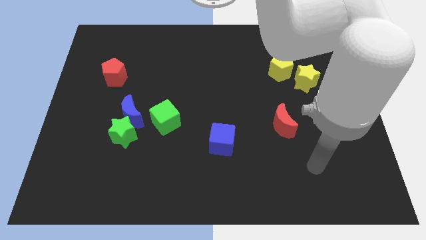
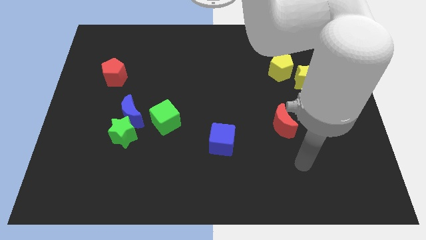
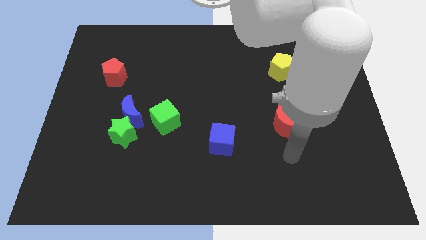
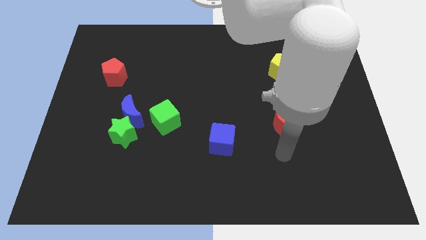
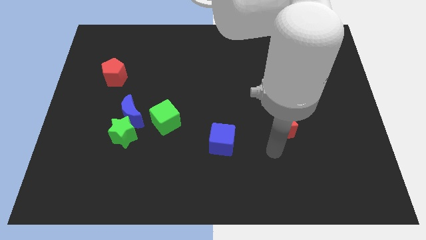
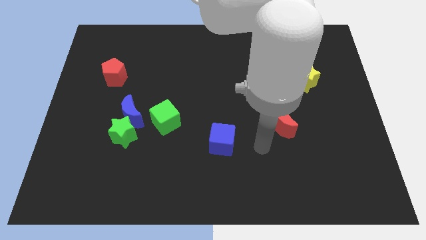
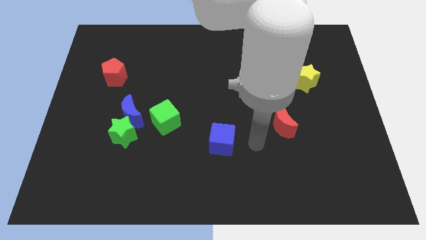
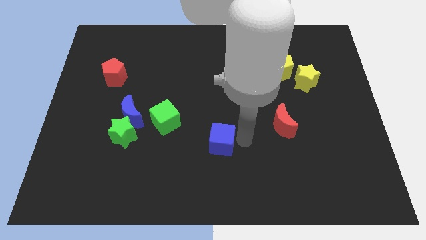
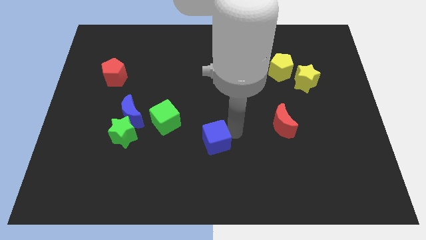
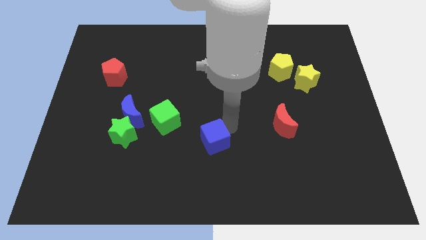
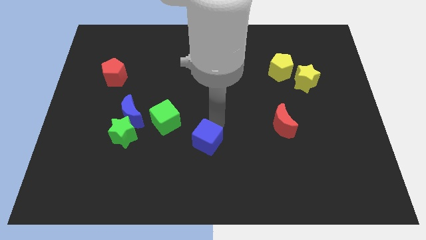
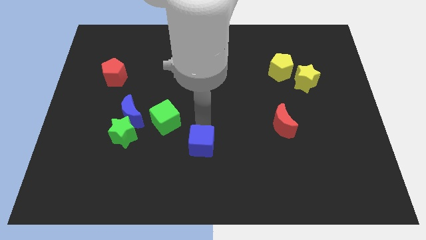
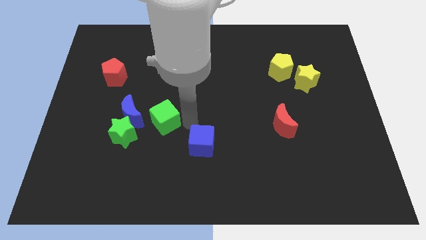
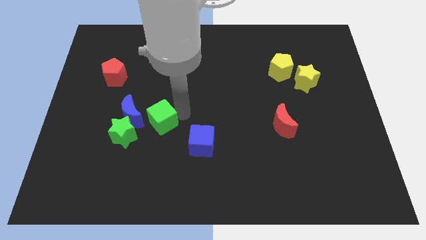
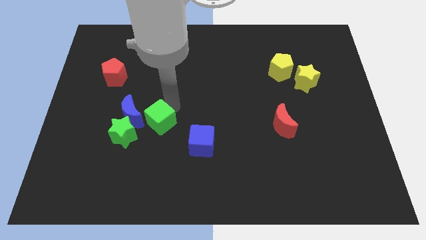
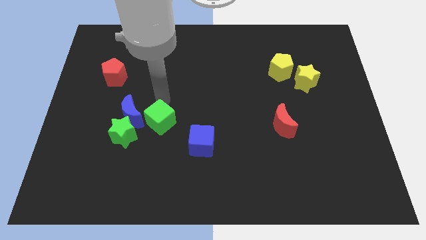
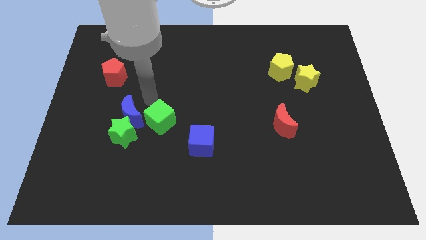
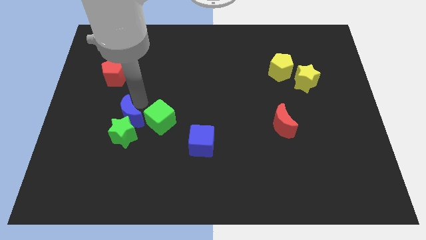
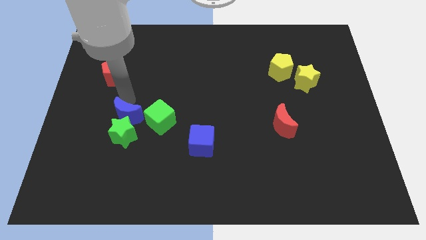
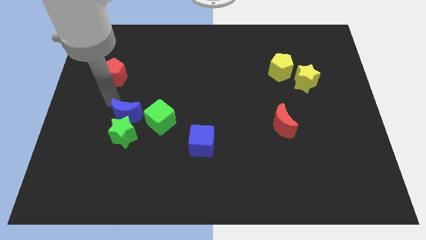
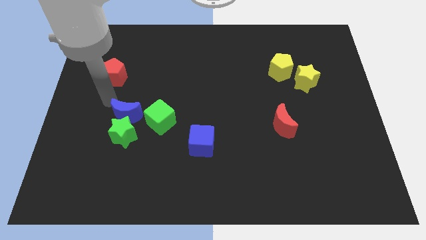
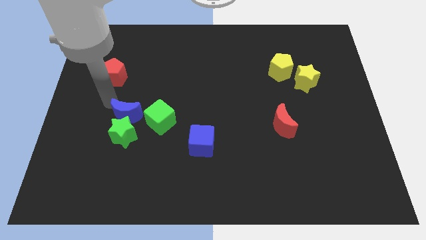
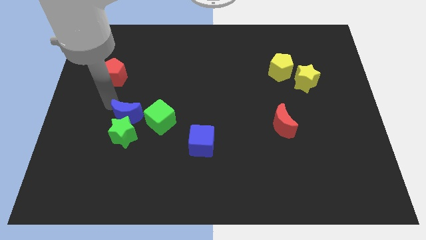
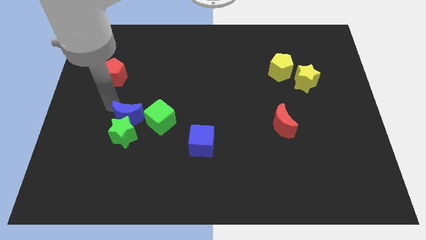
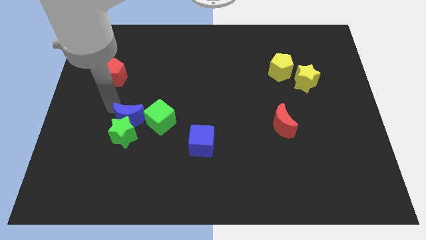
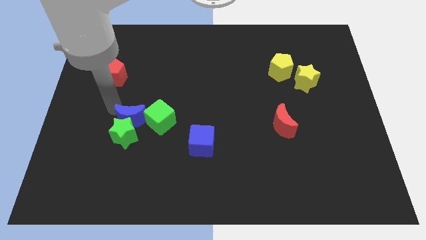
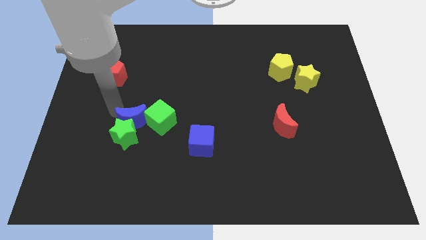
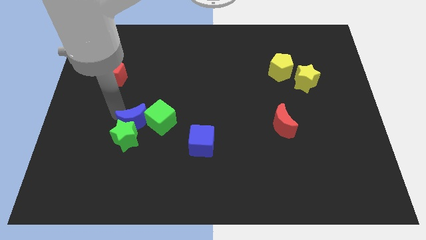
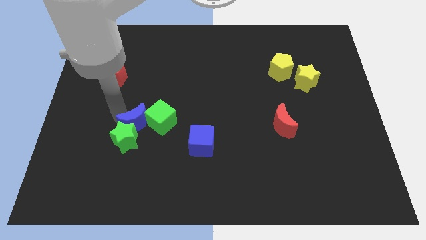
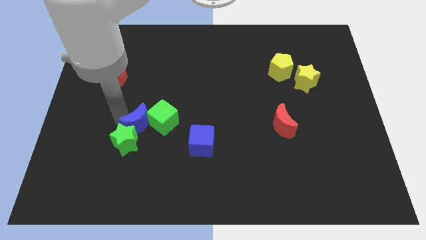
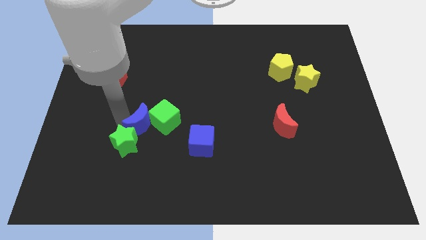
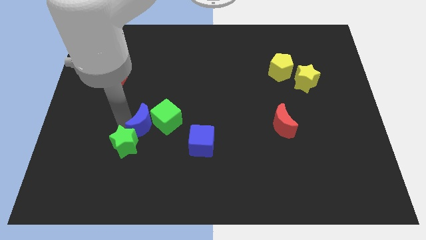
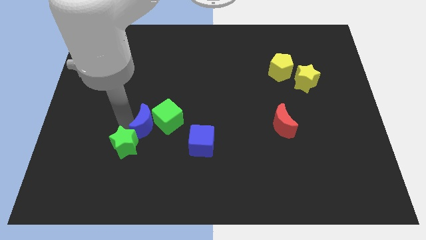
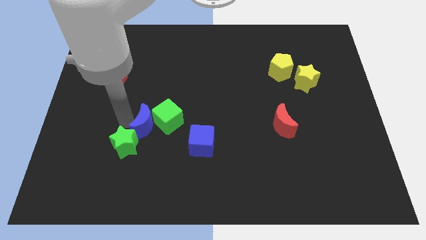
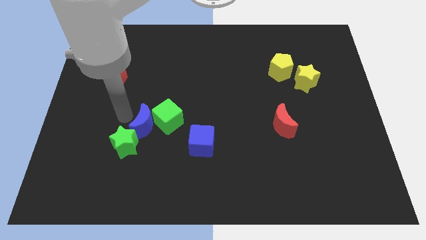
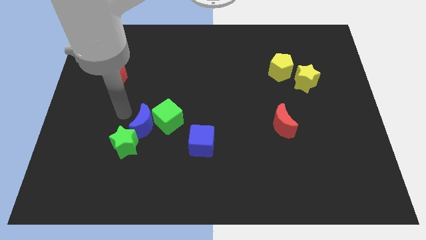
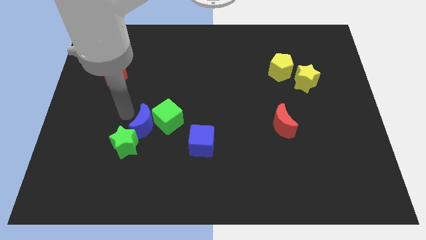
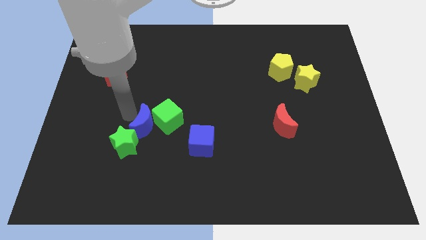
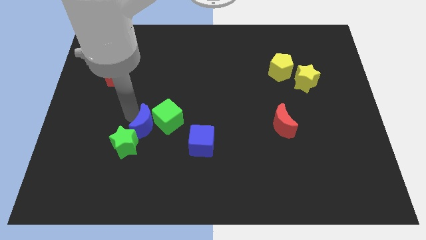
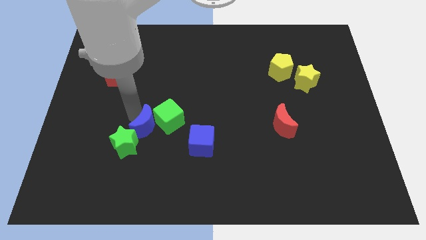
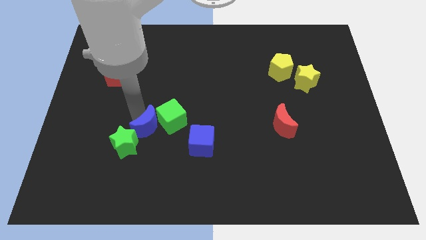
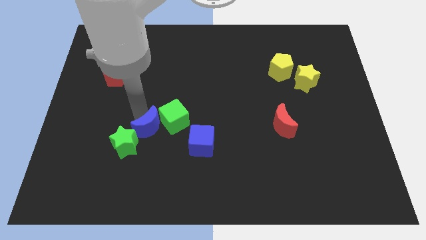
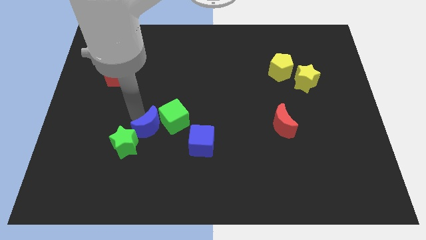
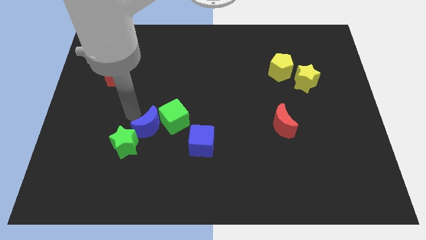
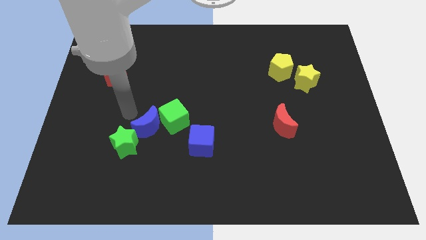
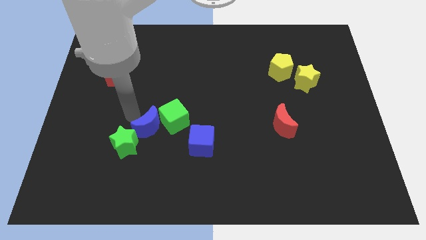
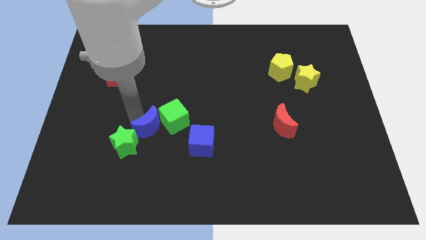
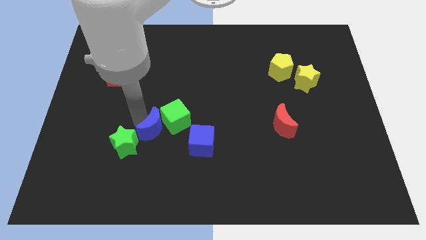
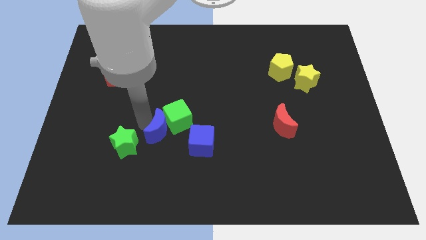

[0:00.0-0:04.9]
slide the blue moon below the green cube

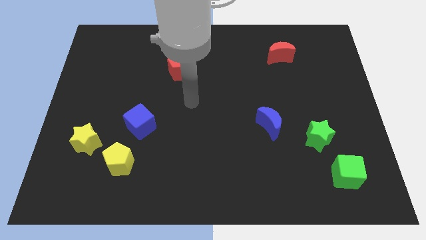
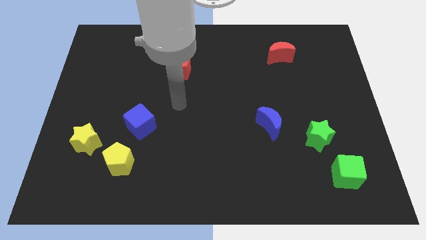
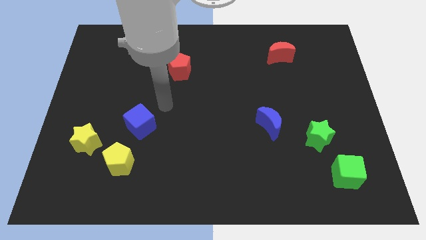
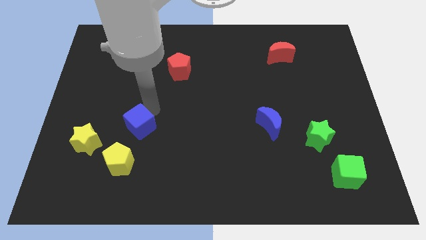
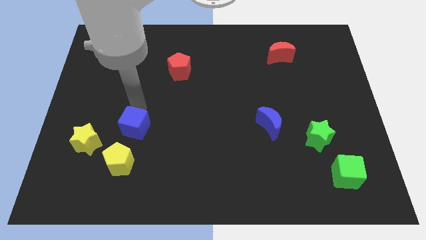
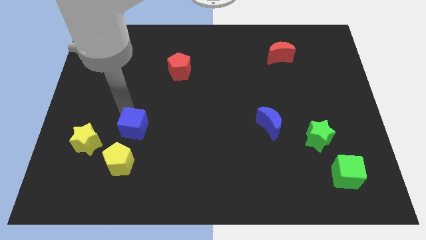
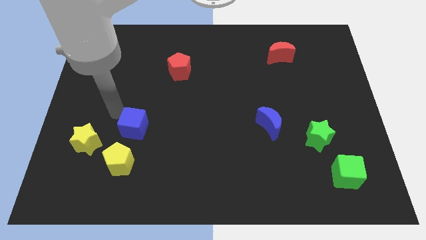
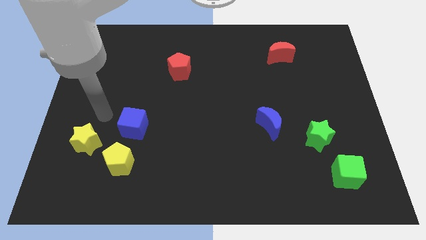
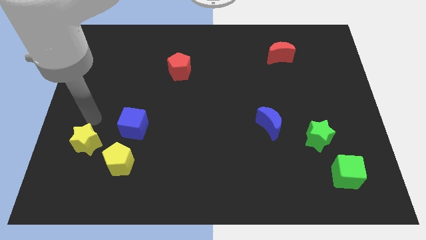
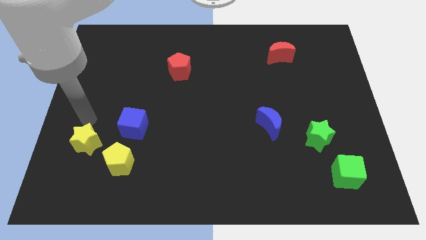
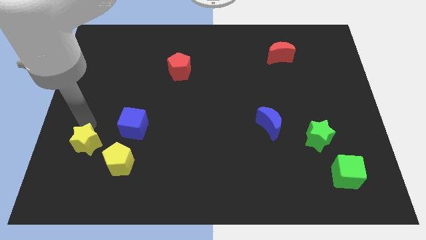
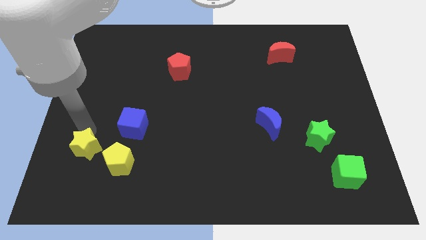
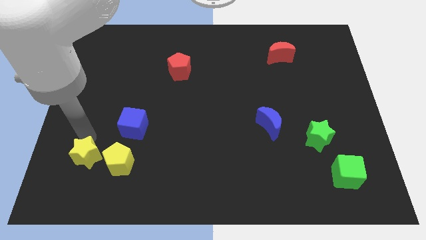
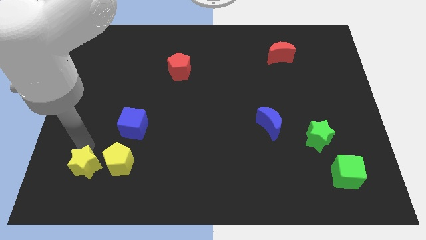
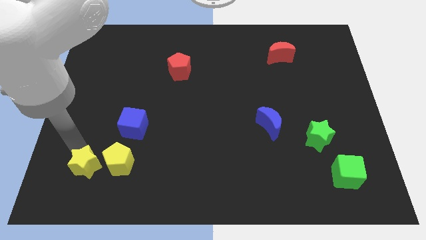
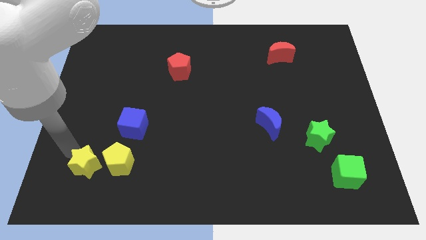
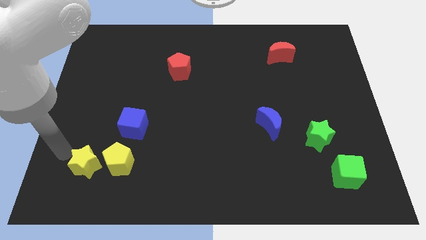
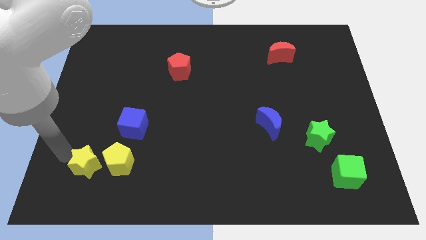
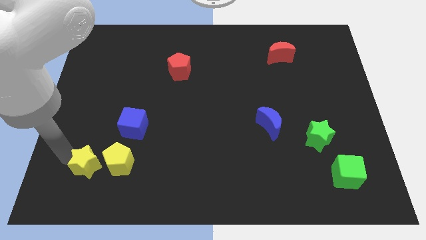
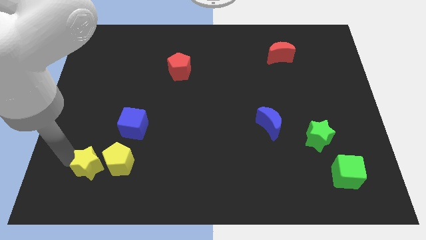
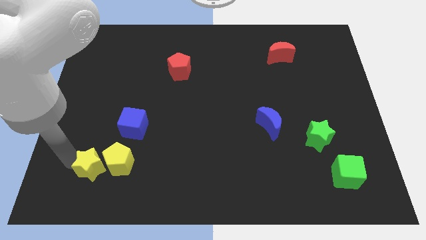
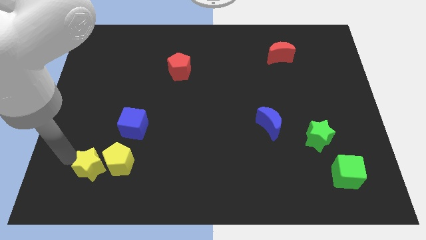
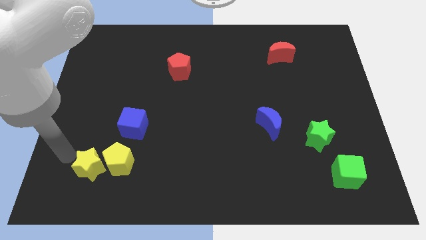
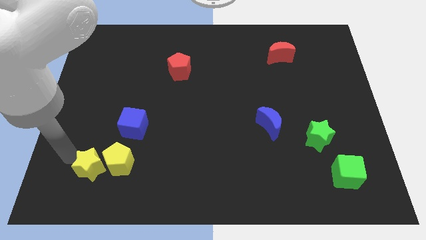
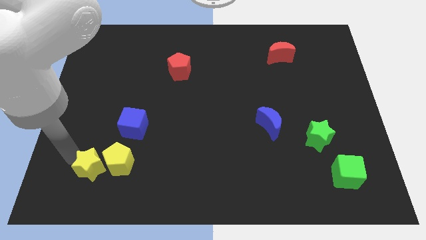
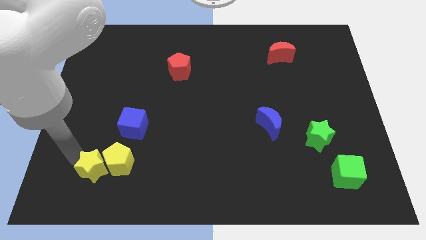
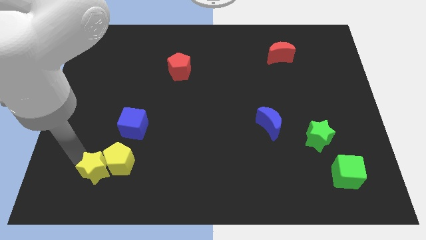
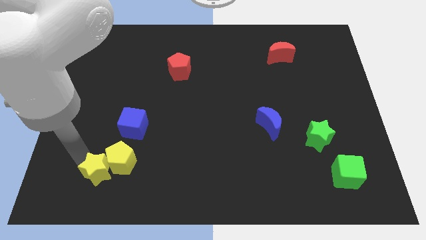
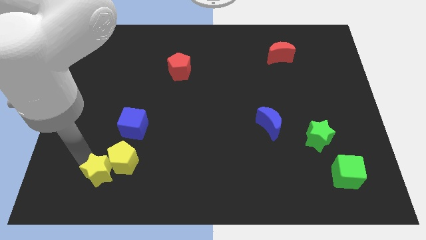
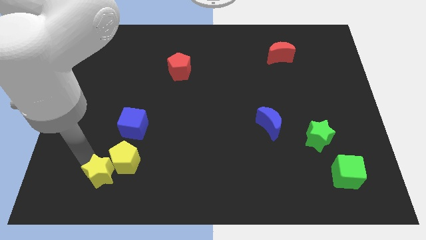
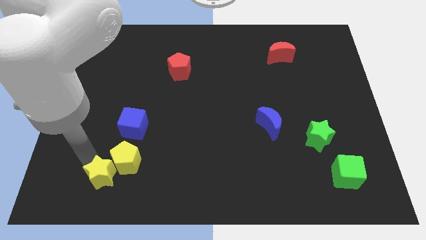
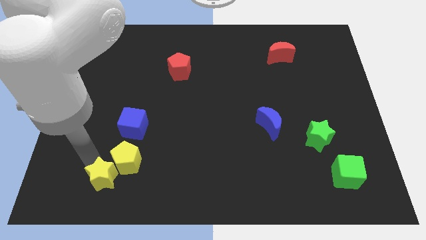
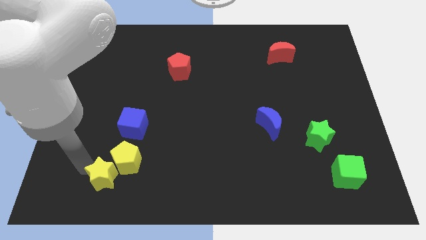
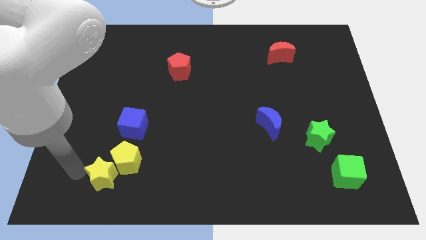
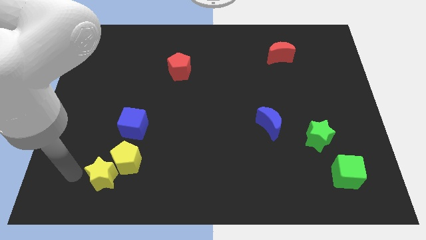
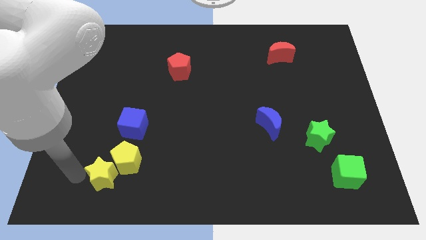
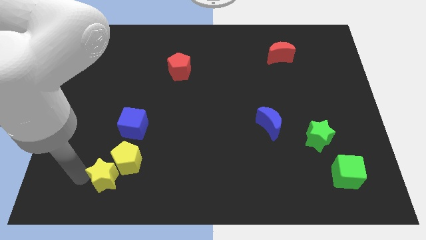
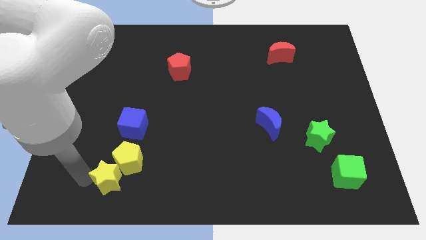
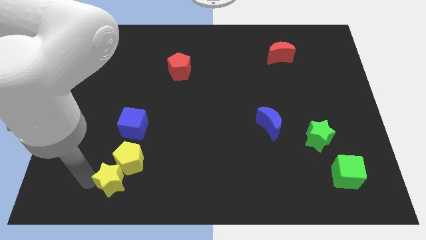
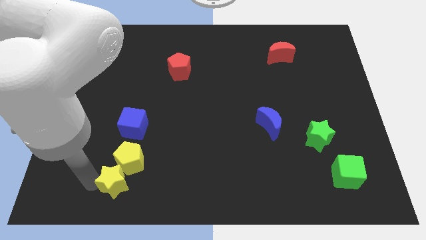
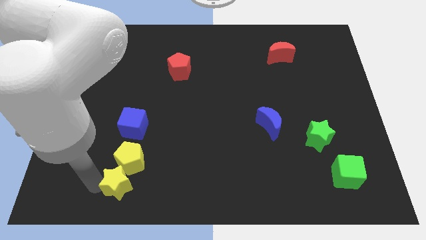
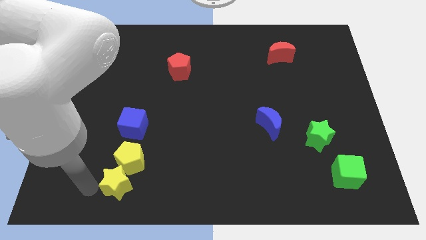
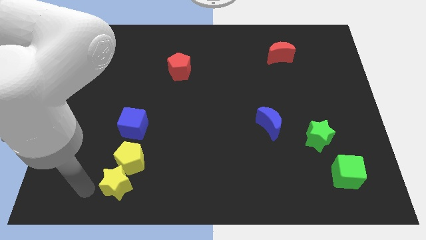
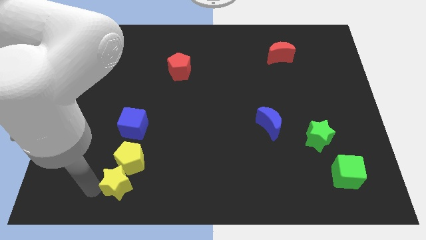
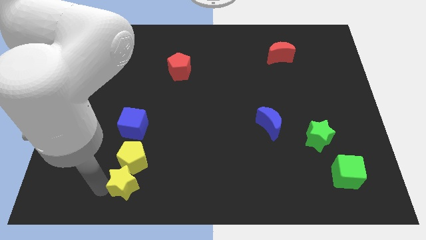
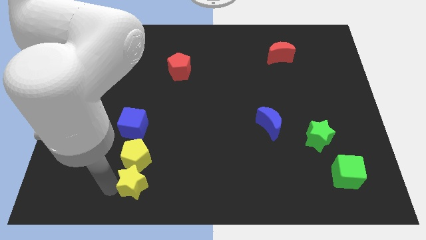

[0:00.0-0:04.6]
push the yellow star to the bottom right side of the yellow pentagon
